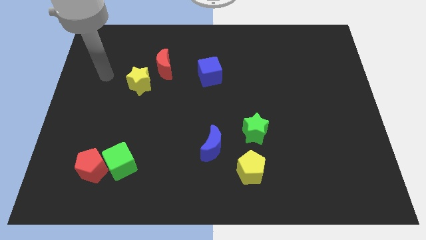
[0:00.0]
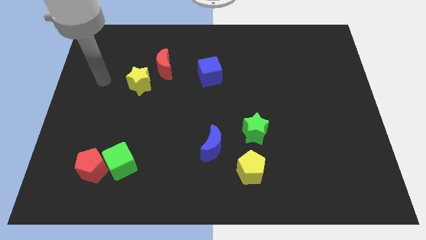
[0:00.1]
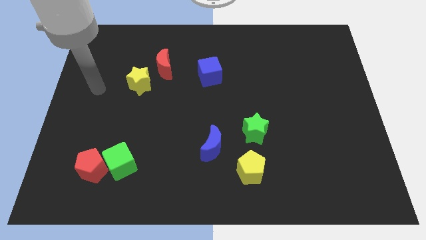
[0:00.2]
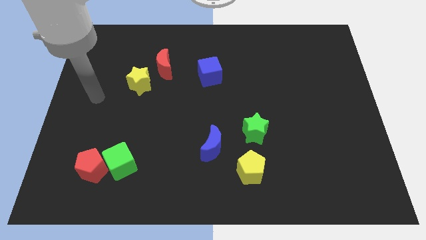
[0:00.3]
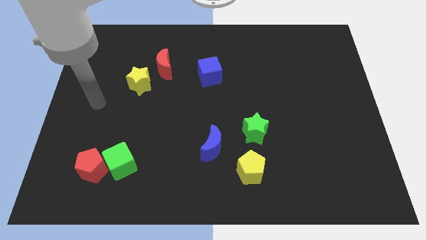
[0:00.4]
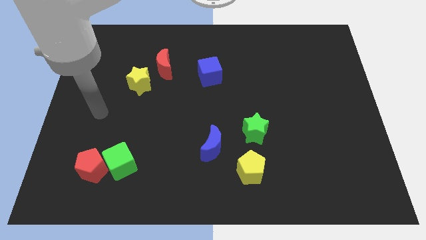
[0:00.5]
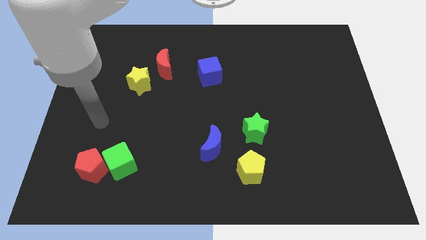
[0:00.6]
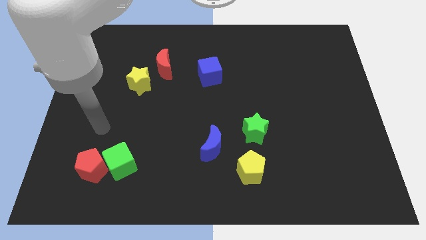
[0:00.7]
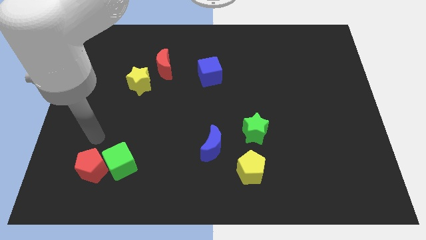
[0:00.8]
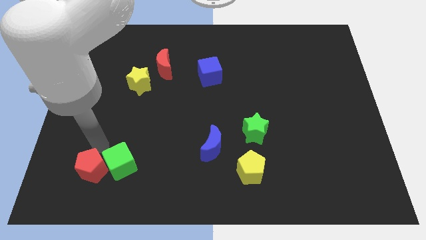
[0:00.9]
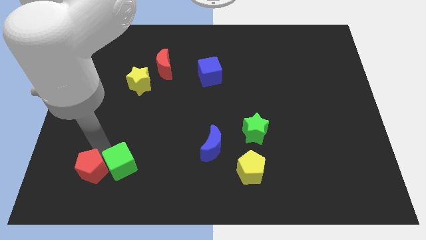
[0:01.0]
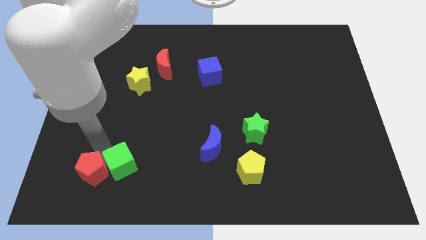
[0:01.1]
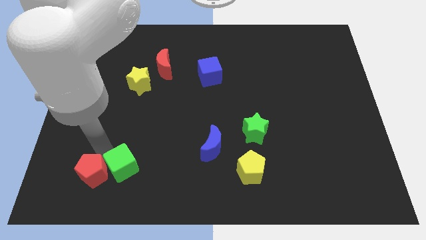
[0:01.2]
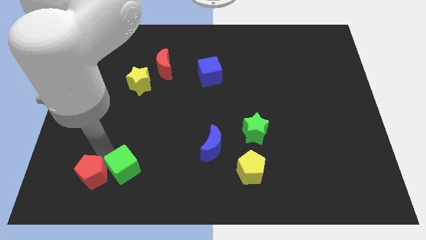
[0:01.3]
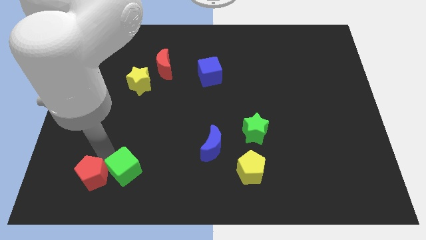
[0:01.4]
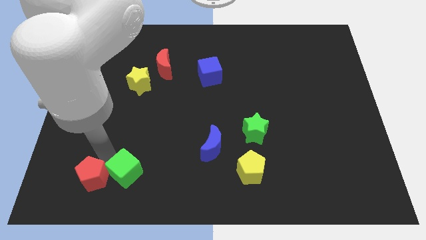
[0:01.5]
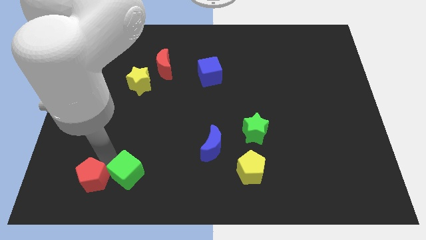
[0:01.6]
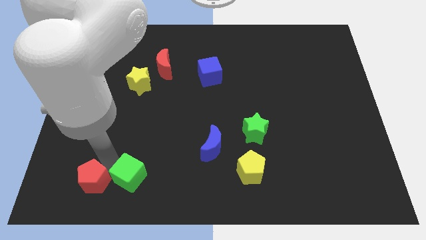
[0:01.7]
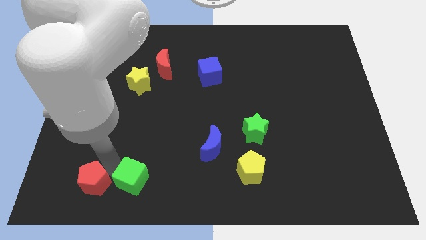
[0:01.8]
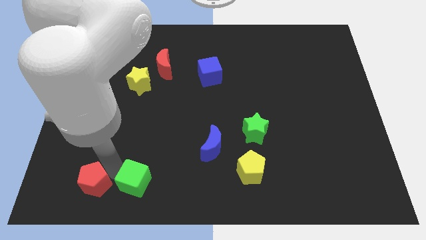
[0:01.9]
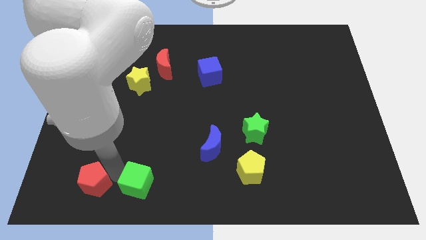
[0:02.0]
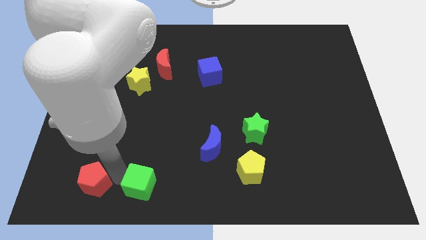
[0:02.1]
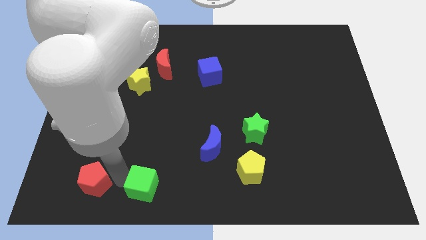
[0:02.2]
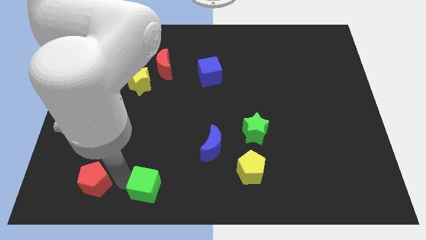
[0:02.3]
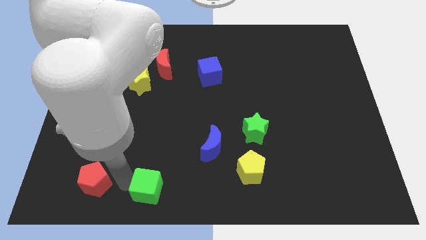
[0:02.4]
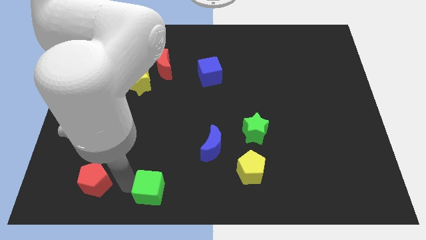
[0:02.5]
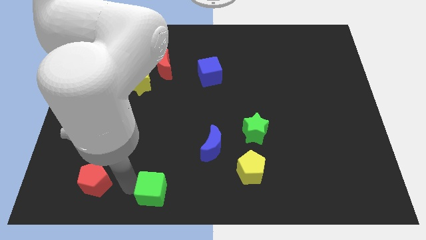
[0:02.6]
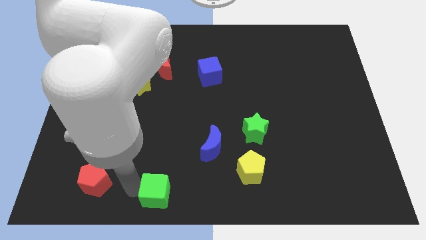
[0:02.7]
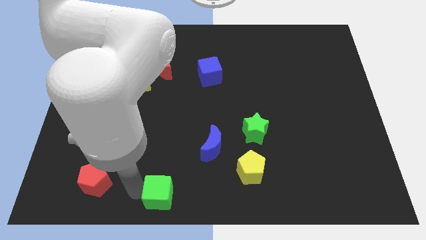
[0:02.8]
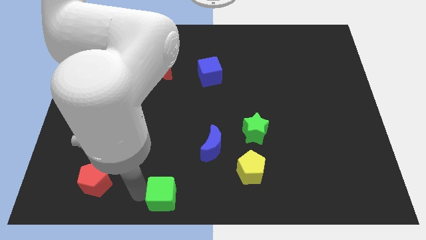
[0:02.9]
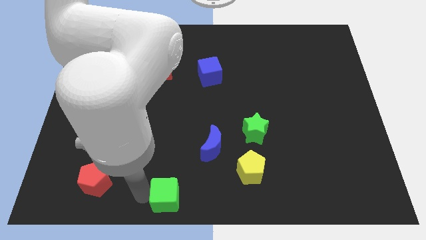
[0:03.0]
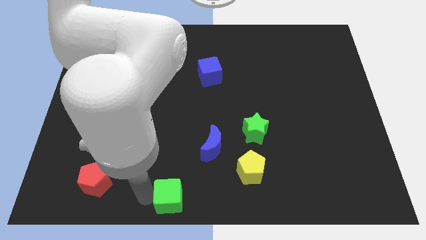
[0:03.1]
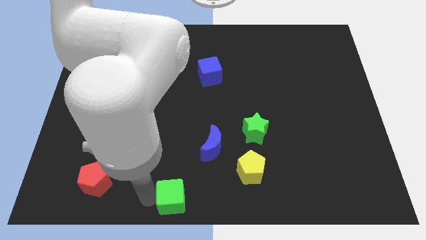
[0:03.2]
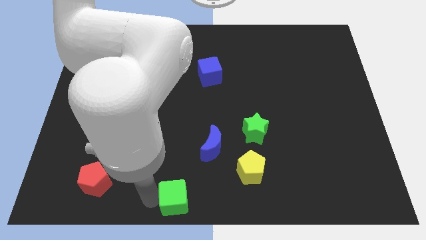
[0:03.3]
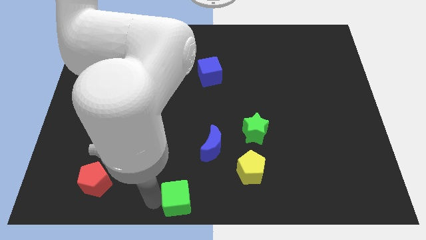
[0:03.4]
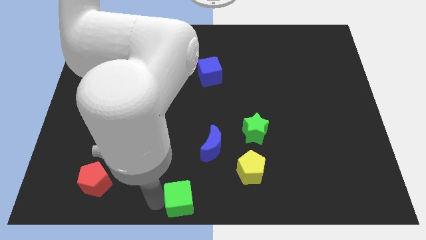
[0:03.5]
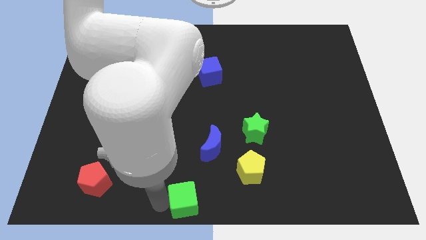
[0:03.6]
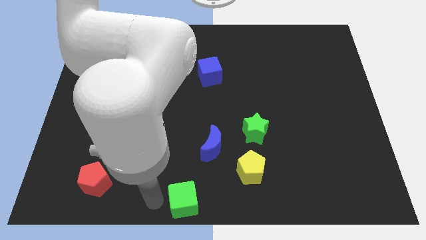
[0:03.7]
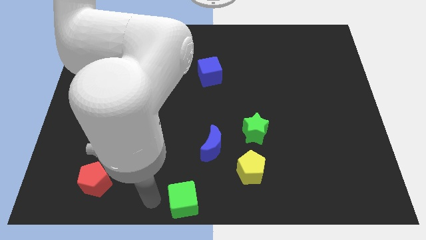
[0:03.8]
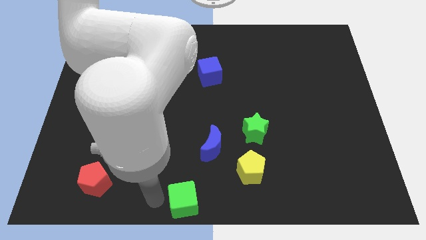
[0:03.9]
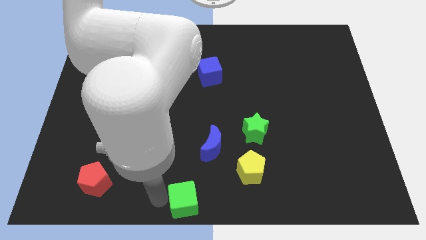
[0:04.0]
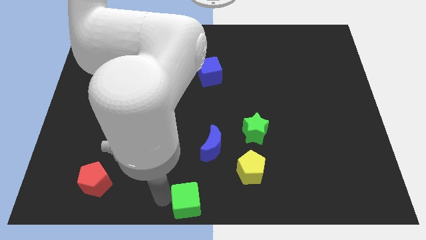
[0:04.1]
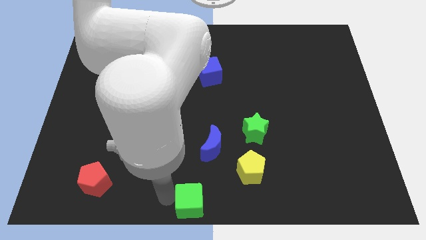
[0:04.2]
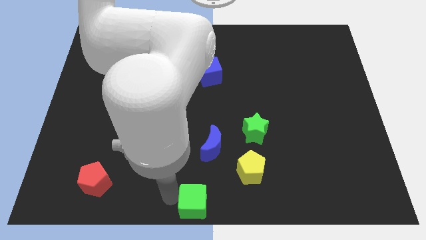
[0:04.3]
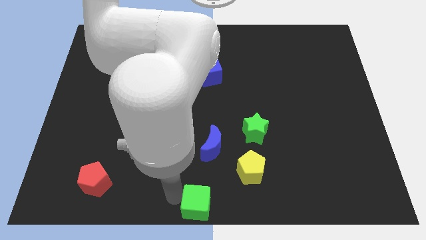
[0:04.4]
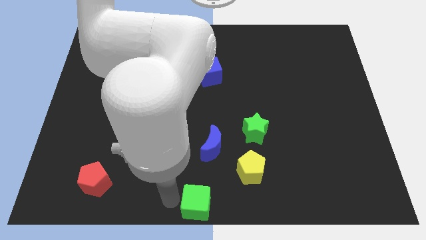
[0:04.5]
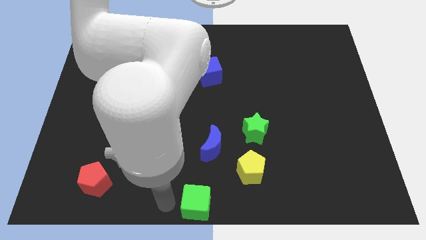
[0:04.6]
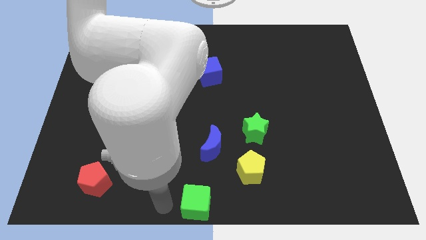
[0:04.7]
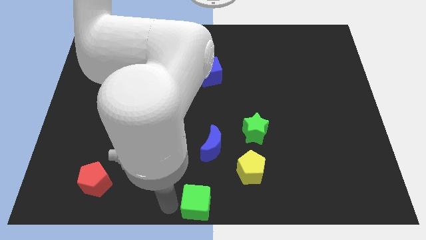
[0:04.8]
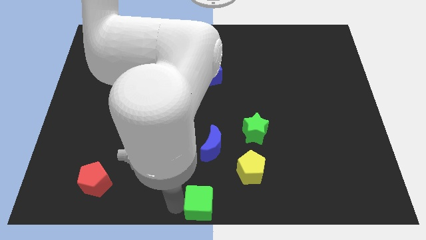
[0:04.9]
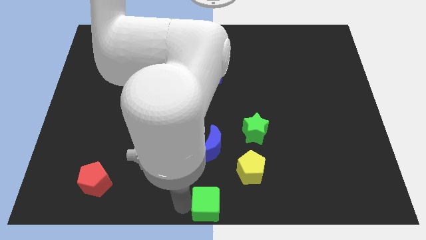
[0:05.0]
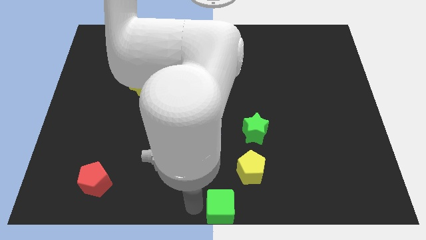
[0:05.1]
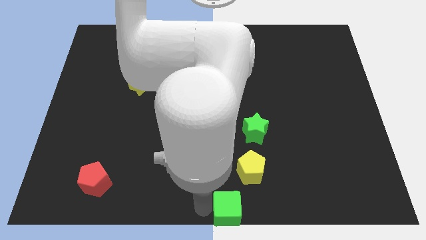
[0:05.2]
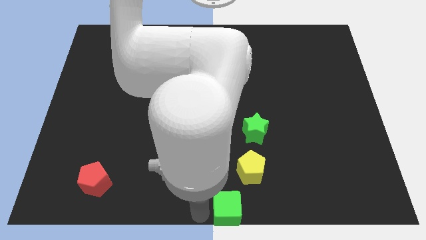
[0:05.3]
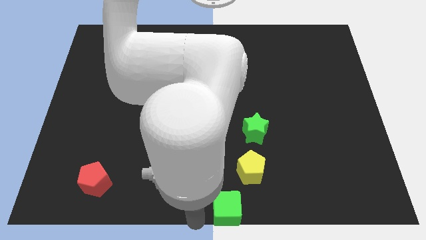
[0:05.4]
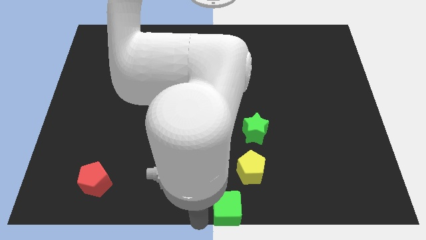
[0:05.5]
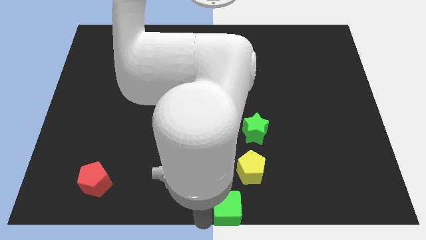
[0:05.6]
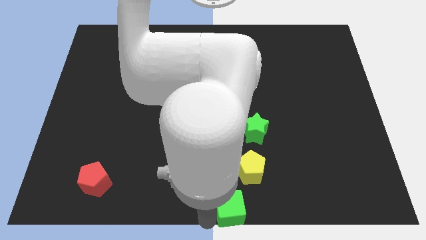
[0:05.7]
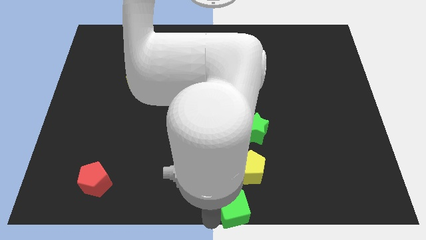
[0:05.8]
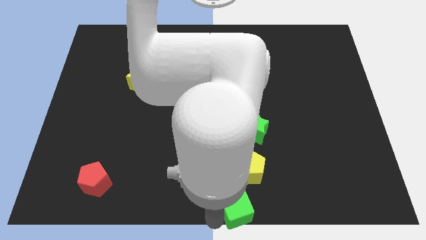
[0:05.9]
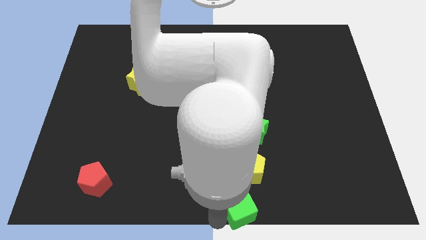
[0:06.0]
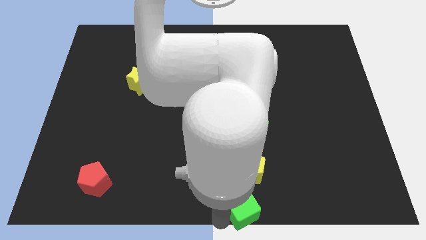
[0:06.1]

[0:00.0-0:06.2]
slide the green cube right

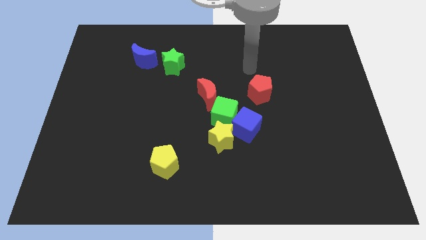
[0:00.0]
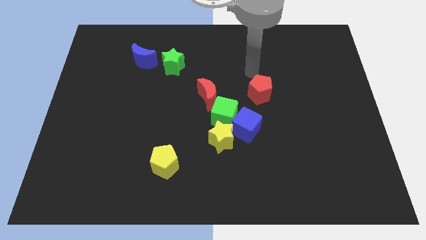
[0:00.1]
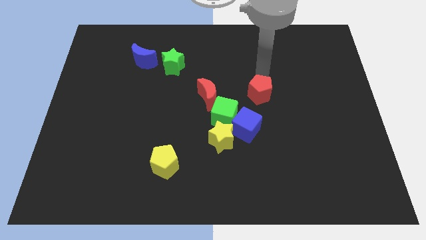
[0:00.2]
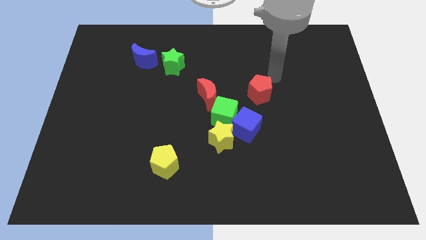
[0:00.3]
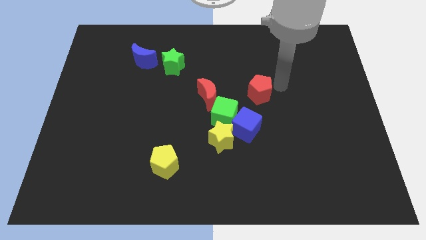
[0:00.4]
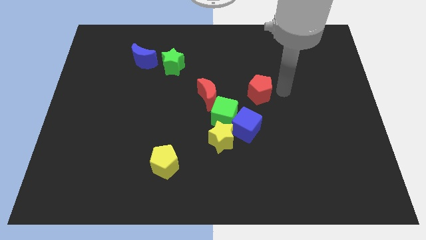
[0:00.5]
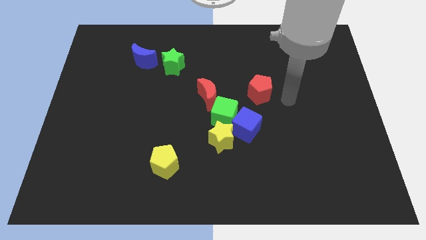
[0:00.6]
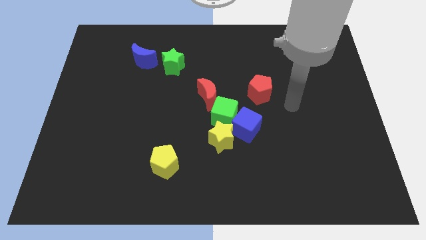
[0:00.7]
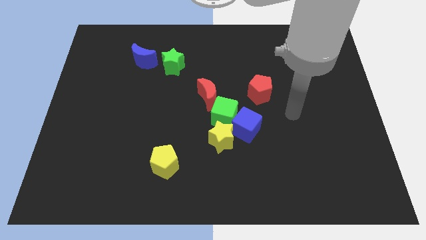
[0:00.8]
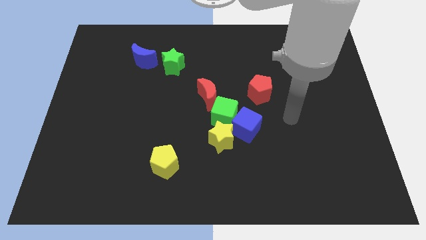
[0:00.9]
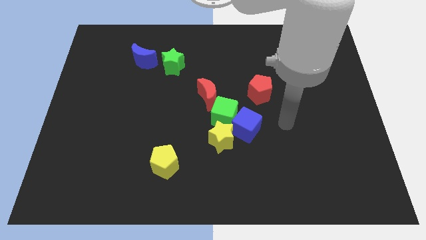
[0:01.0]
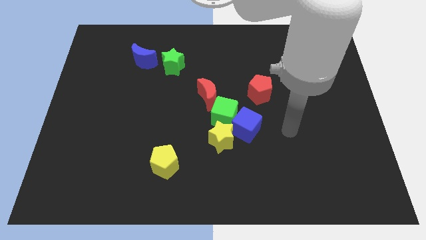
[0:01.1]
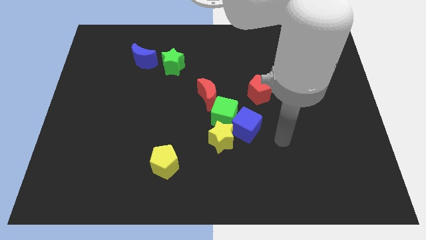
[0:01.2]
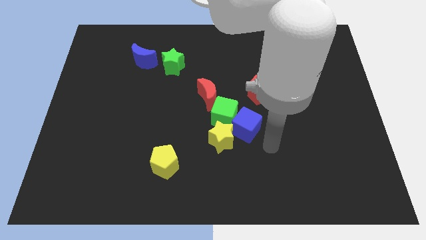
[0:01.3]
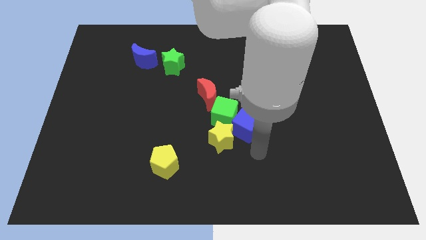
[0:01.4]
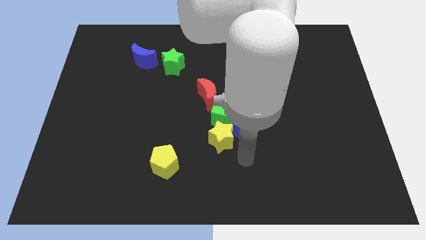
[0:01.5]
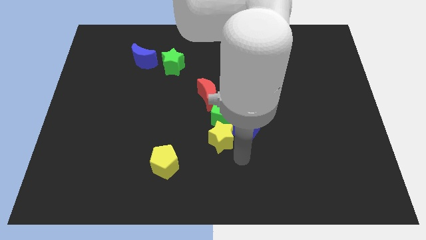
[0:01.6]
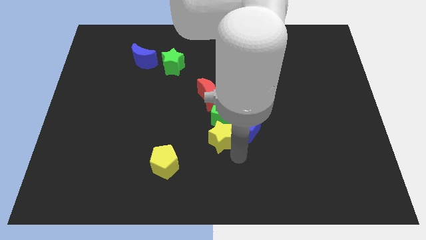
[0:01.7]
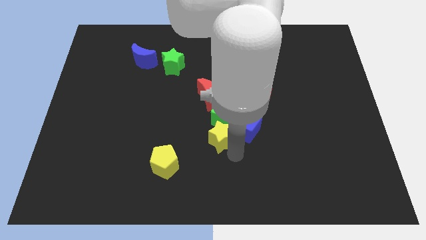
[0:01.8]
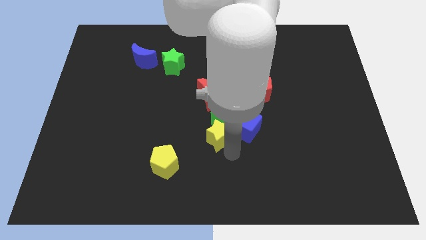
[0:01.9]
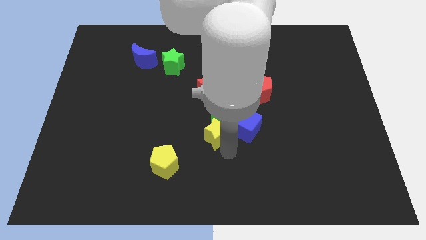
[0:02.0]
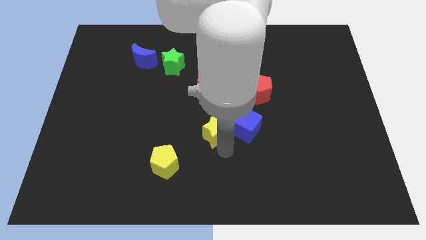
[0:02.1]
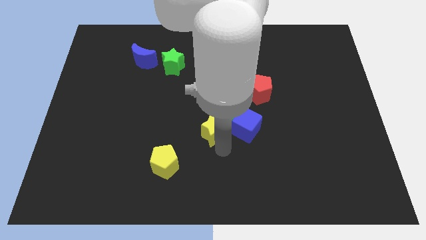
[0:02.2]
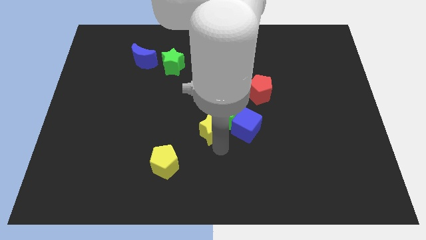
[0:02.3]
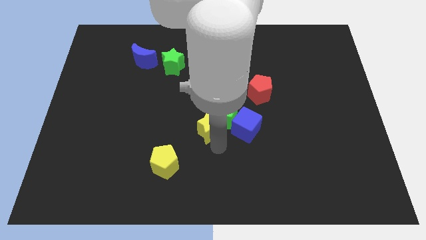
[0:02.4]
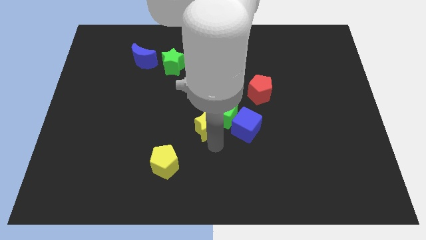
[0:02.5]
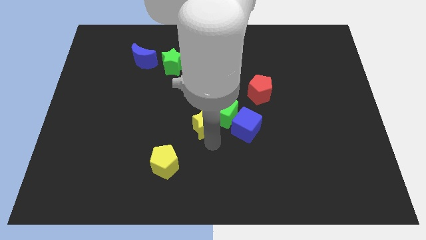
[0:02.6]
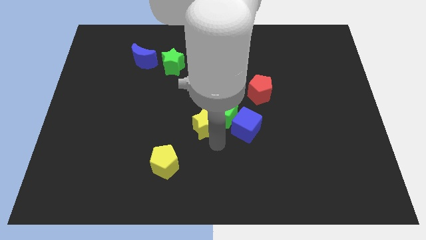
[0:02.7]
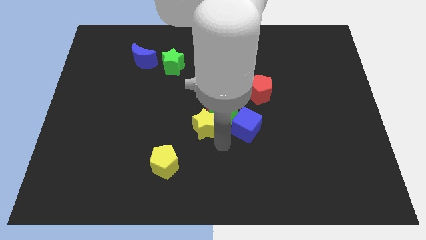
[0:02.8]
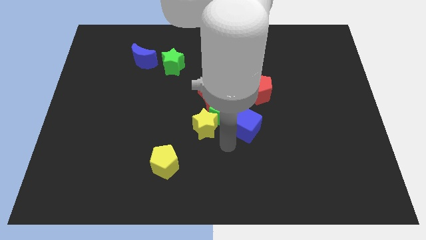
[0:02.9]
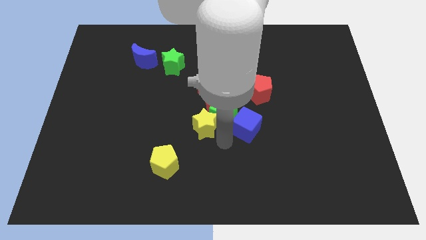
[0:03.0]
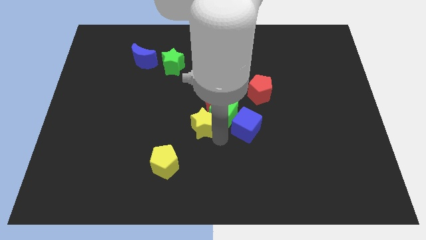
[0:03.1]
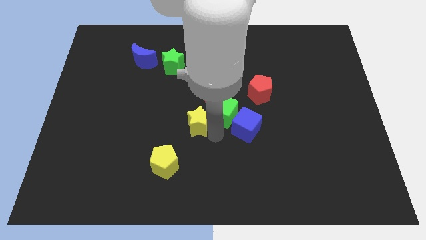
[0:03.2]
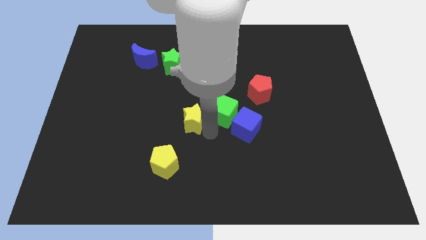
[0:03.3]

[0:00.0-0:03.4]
slide the yellow star a bit upwards and to the left diagonally
